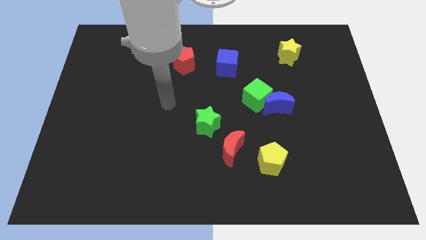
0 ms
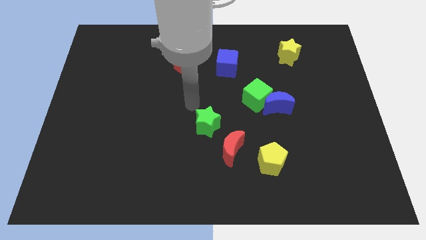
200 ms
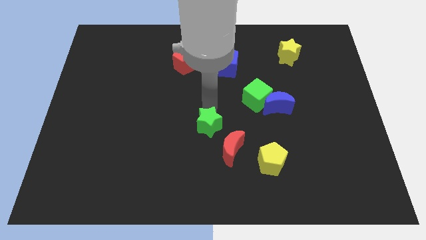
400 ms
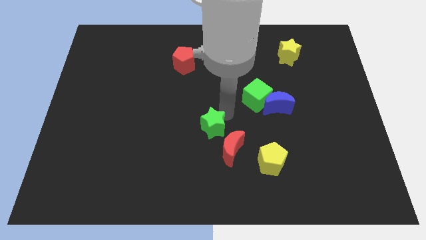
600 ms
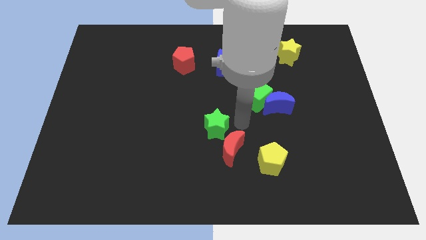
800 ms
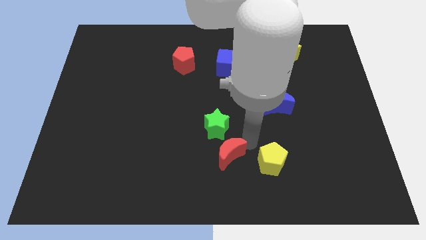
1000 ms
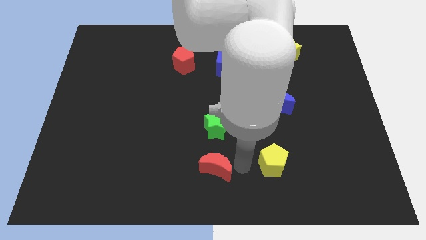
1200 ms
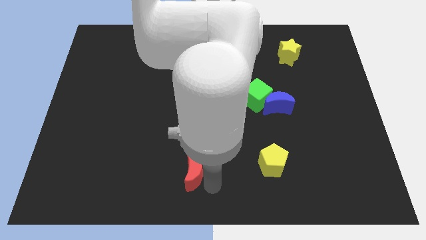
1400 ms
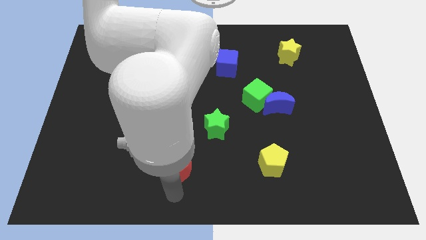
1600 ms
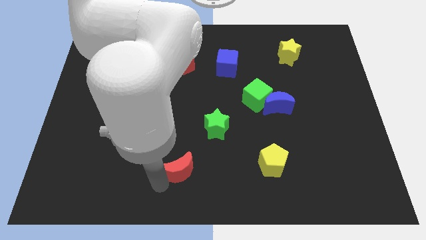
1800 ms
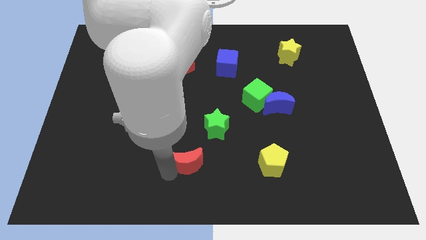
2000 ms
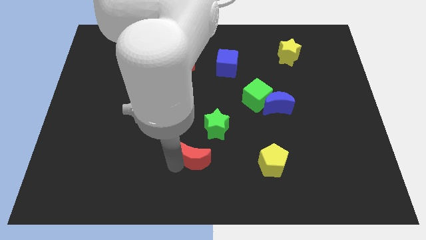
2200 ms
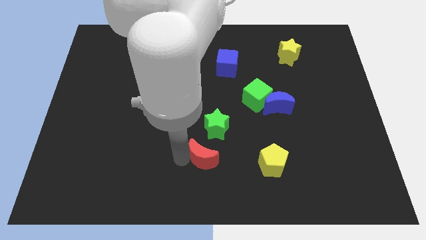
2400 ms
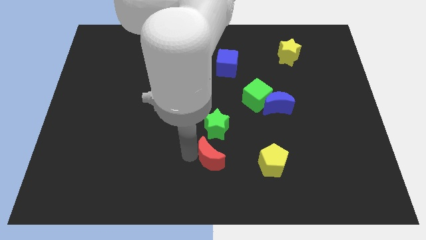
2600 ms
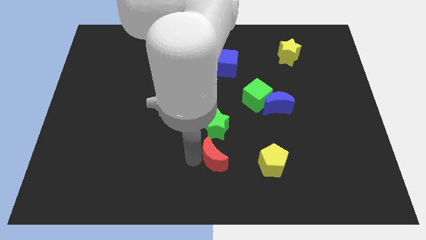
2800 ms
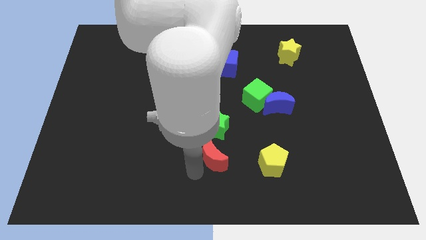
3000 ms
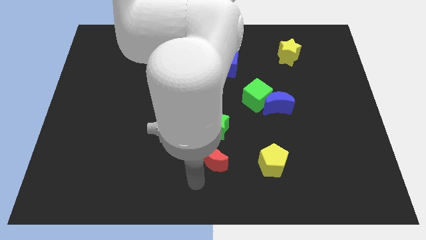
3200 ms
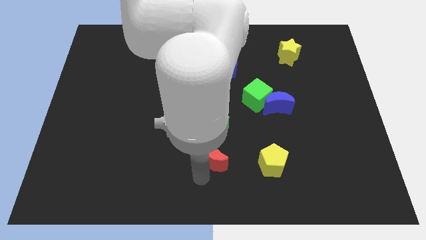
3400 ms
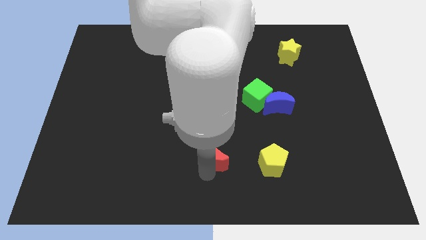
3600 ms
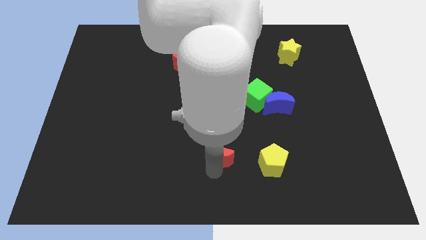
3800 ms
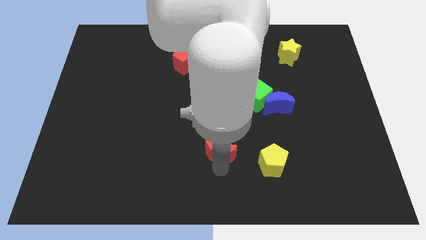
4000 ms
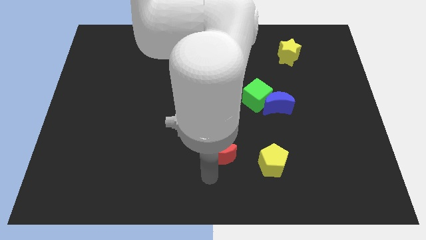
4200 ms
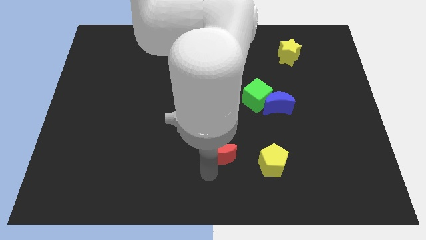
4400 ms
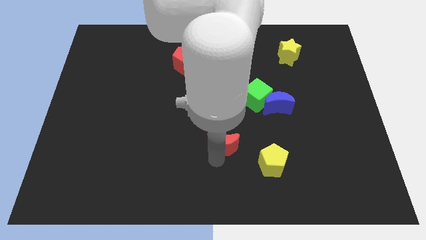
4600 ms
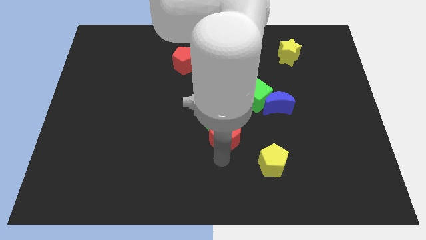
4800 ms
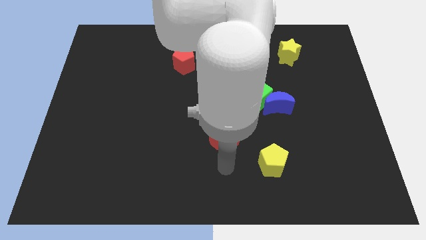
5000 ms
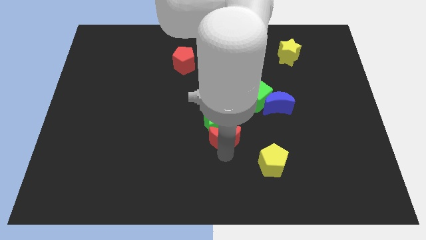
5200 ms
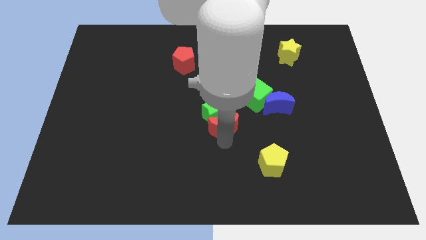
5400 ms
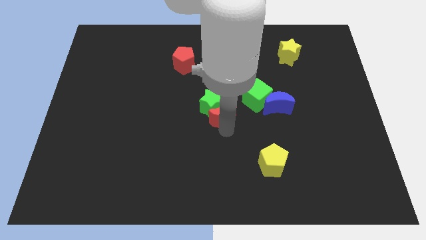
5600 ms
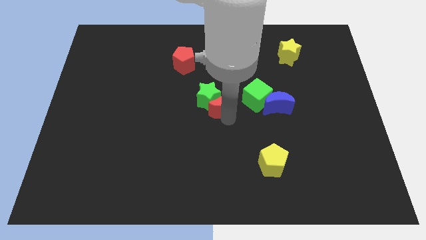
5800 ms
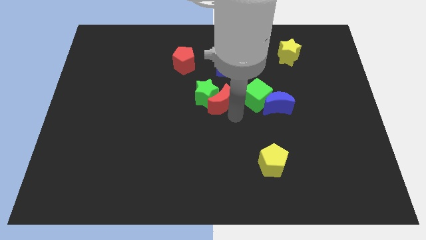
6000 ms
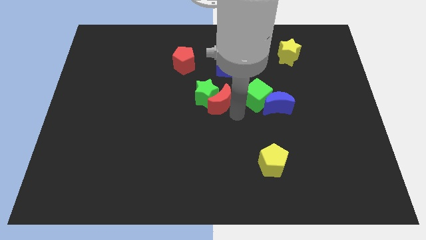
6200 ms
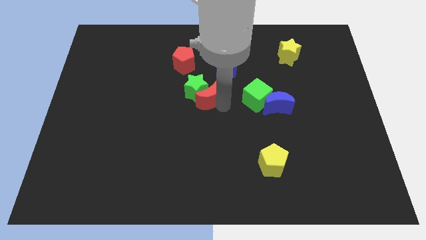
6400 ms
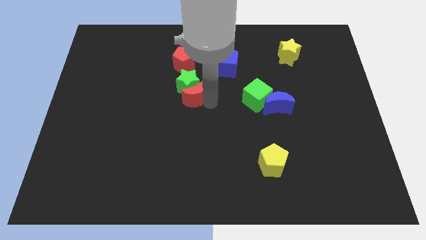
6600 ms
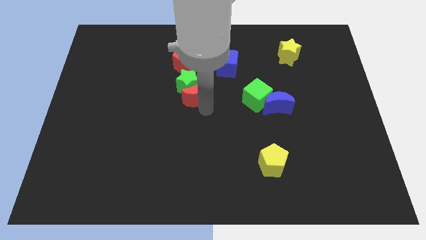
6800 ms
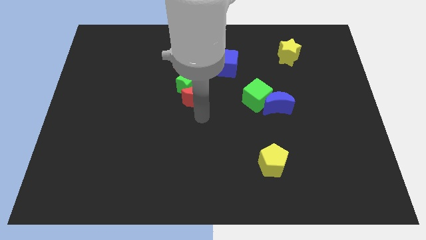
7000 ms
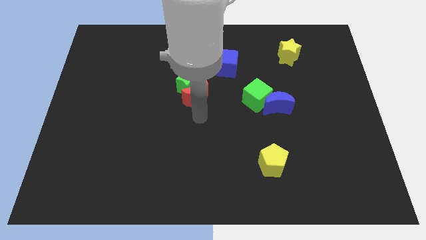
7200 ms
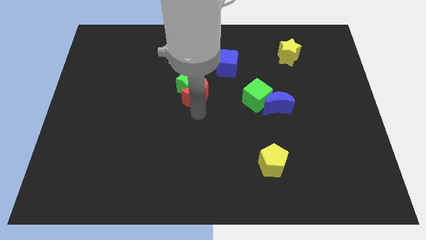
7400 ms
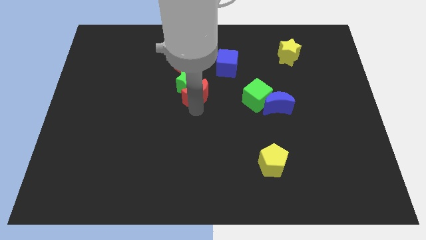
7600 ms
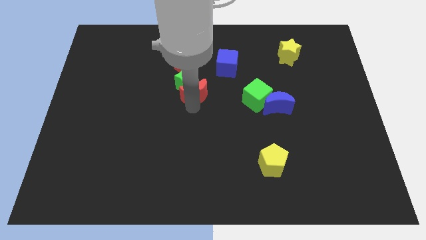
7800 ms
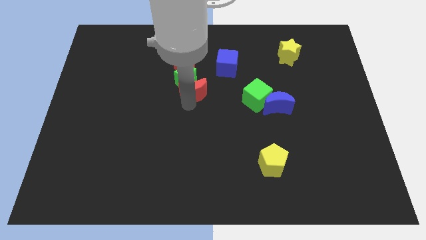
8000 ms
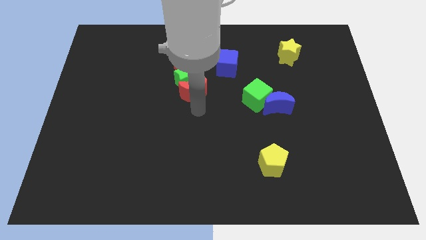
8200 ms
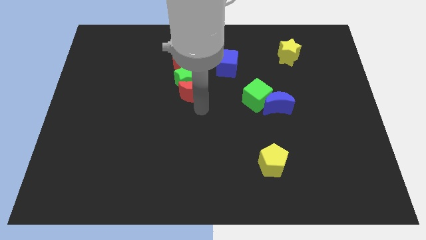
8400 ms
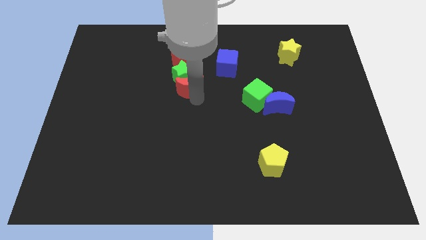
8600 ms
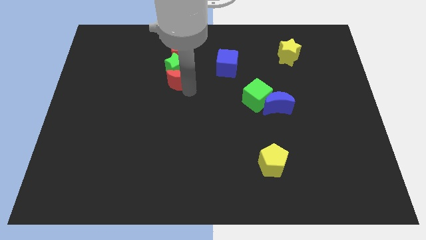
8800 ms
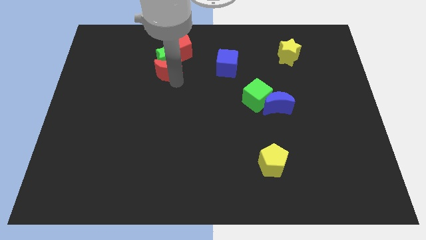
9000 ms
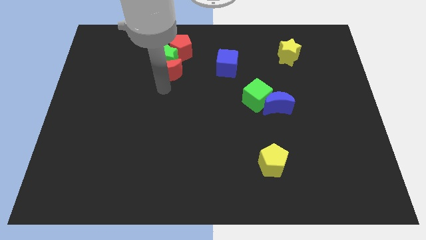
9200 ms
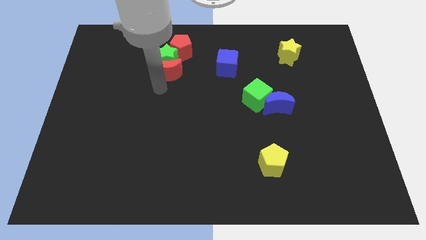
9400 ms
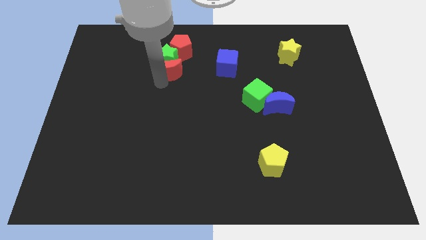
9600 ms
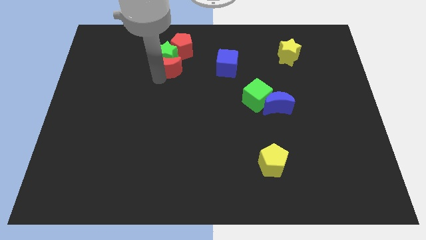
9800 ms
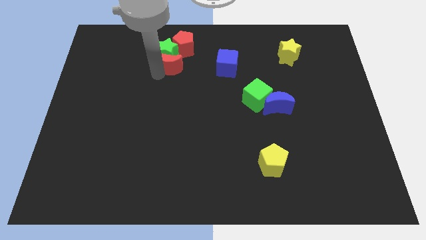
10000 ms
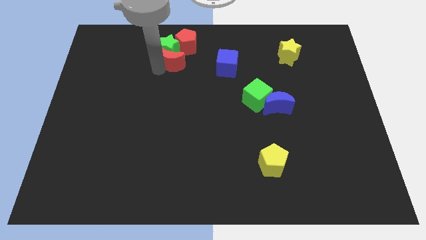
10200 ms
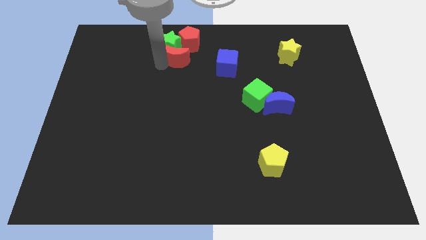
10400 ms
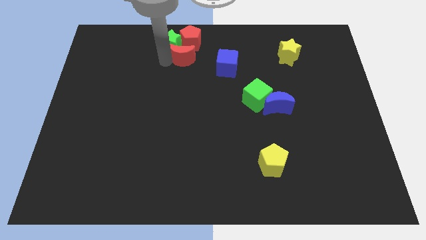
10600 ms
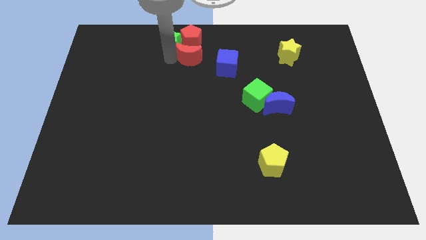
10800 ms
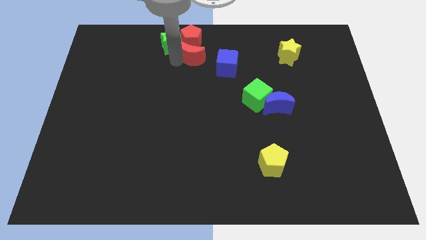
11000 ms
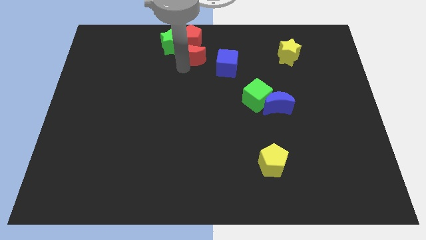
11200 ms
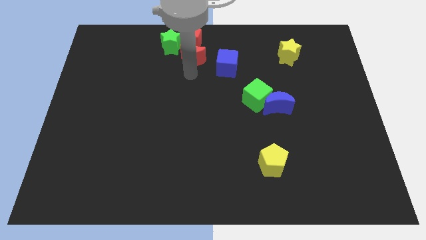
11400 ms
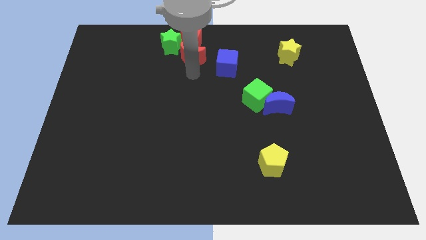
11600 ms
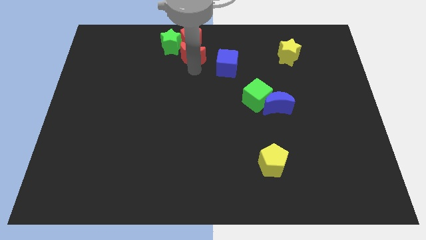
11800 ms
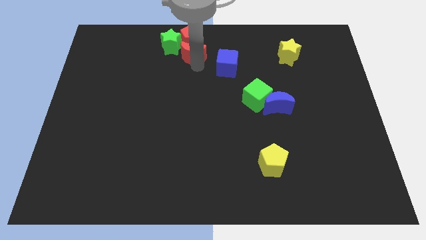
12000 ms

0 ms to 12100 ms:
move the red moon next to the red pentagon

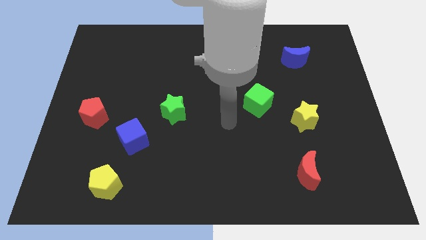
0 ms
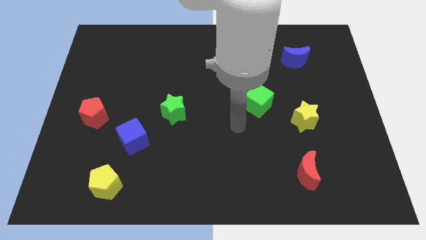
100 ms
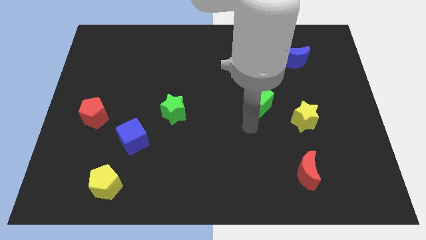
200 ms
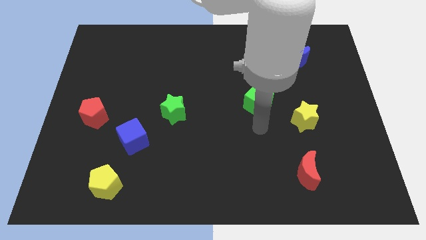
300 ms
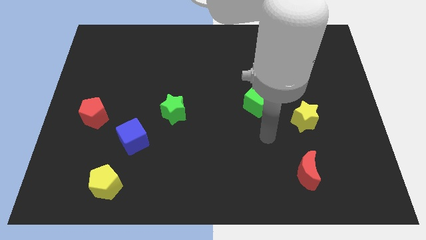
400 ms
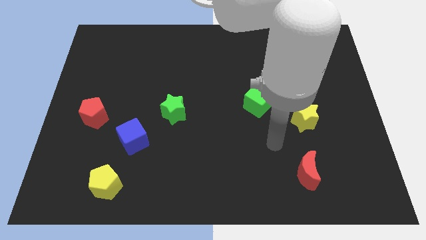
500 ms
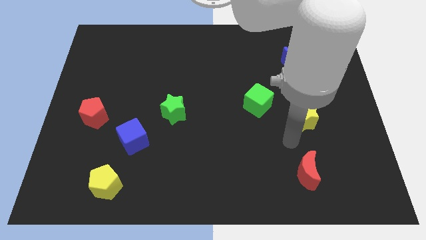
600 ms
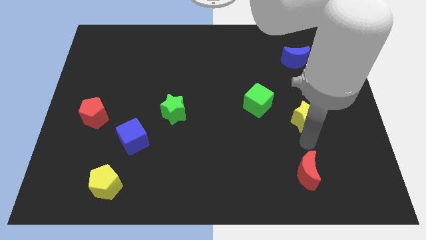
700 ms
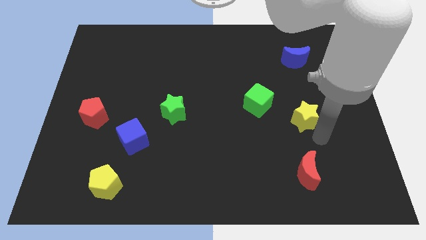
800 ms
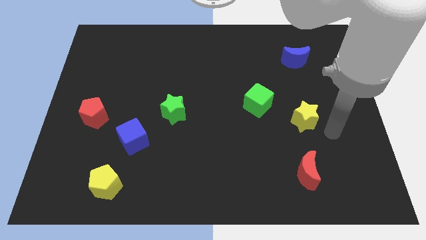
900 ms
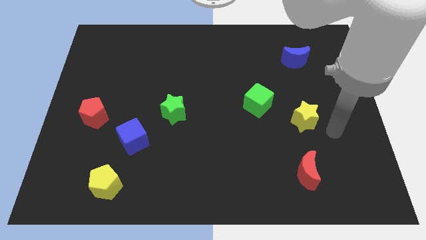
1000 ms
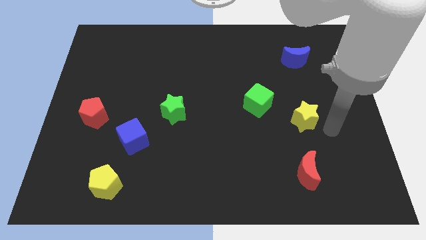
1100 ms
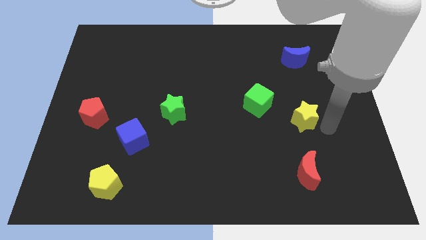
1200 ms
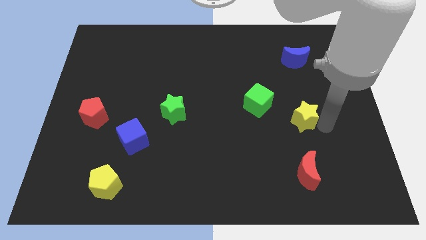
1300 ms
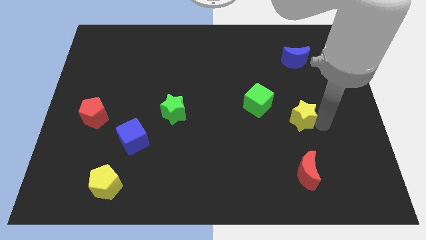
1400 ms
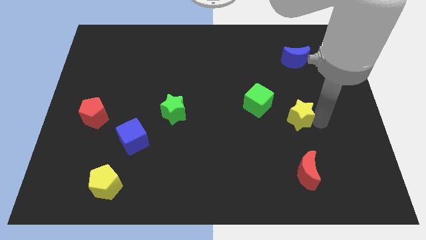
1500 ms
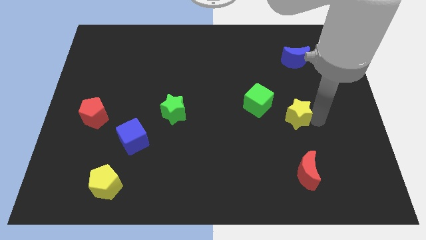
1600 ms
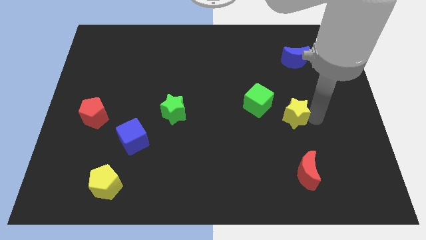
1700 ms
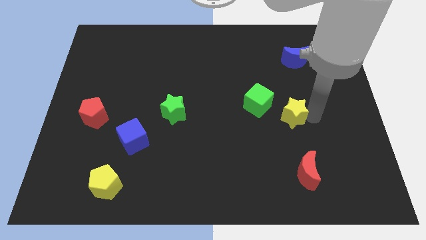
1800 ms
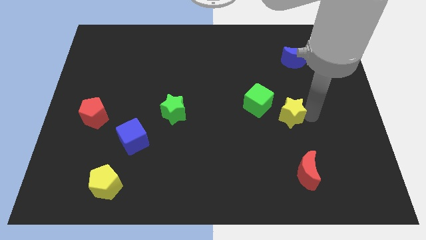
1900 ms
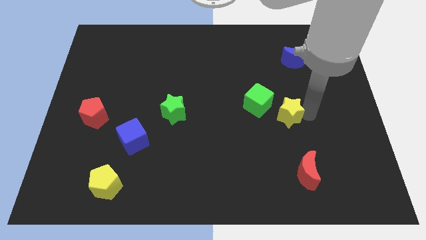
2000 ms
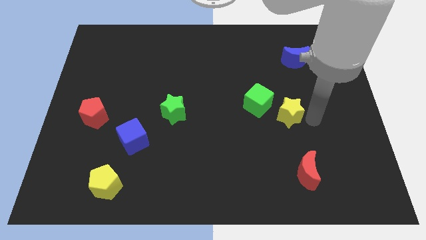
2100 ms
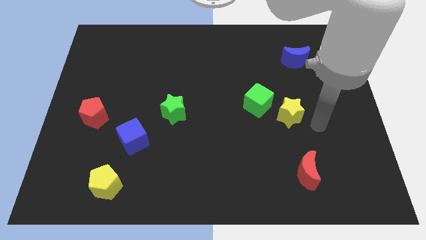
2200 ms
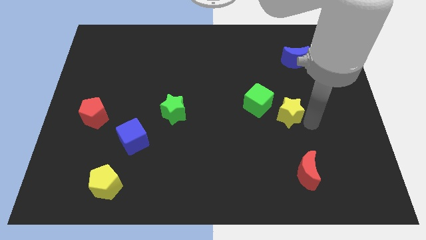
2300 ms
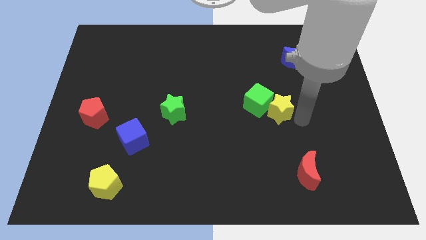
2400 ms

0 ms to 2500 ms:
move the yellow star next to the green cube
